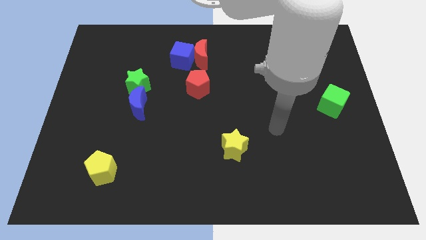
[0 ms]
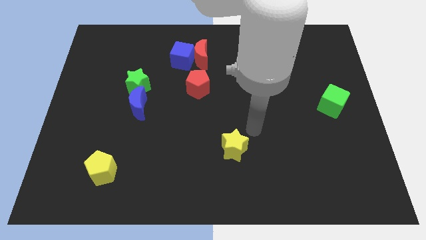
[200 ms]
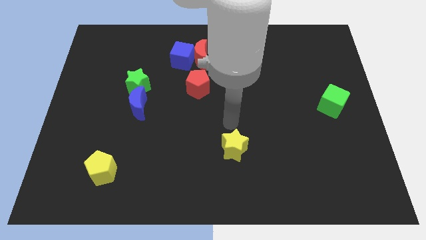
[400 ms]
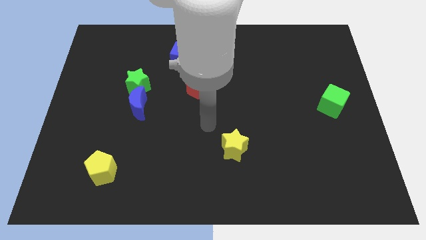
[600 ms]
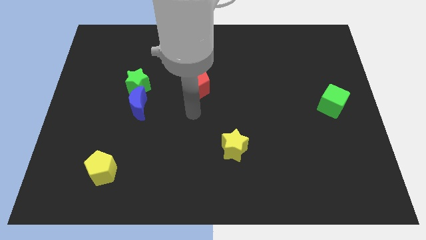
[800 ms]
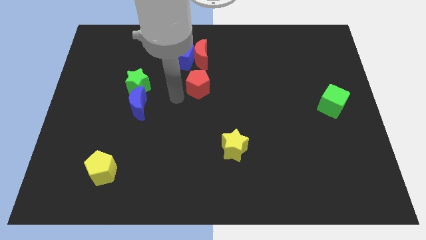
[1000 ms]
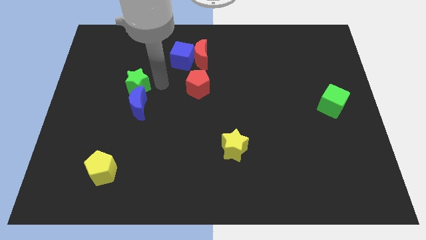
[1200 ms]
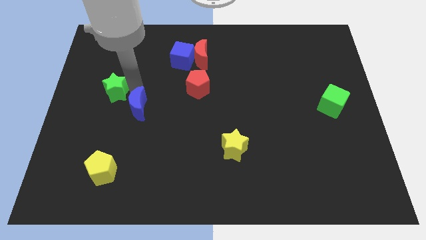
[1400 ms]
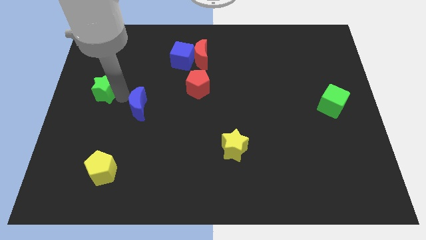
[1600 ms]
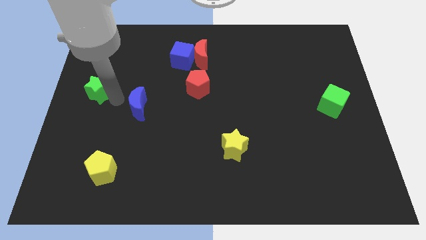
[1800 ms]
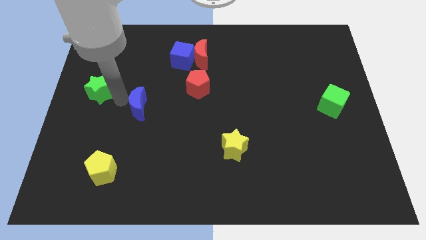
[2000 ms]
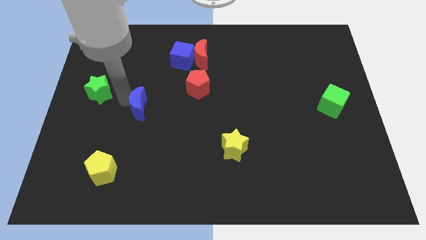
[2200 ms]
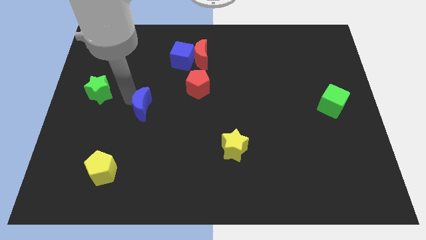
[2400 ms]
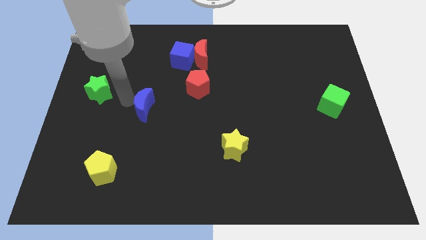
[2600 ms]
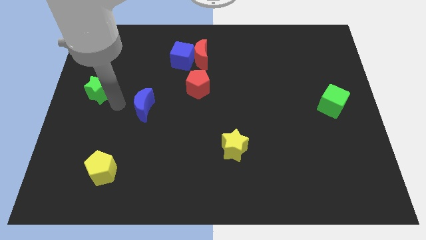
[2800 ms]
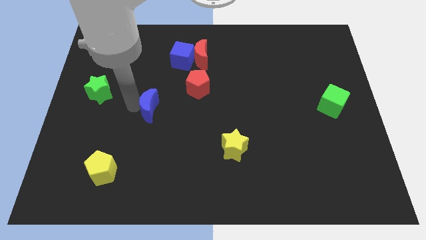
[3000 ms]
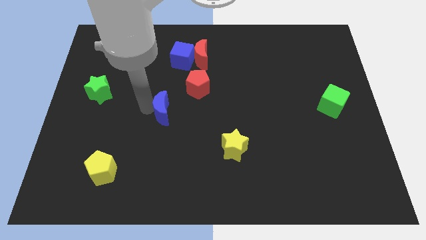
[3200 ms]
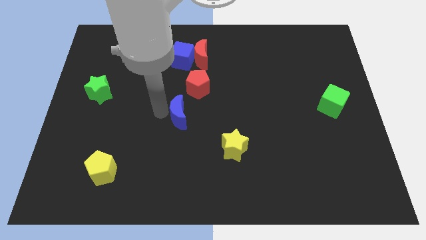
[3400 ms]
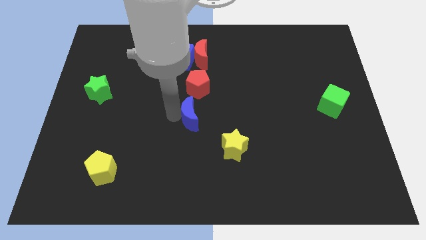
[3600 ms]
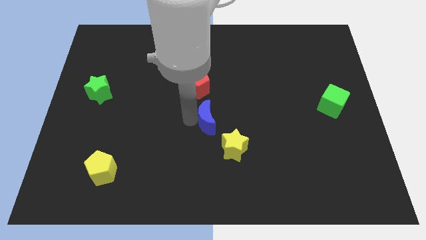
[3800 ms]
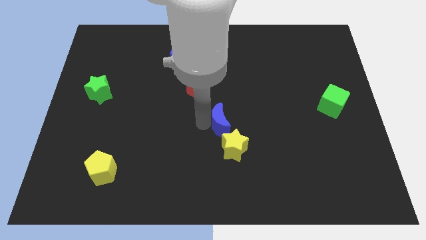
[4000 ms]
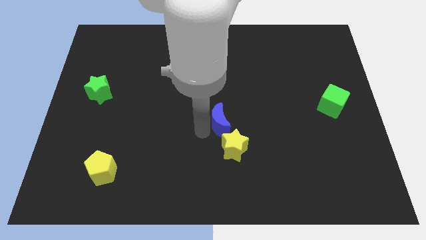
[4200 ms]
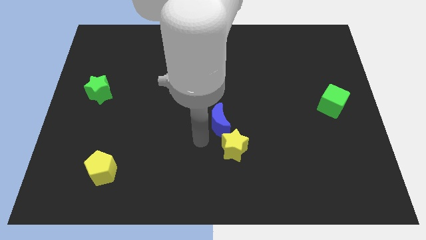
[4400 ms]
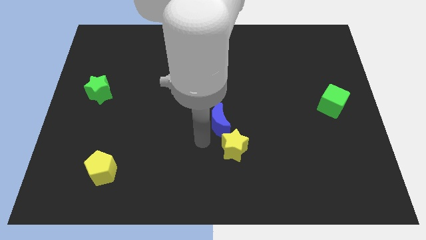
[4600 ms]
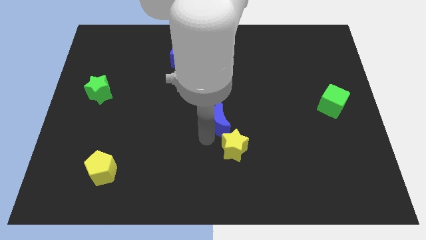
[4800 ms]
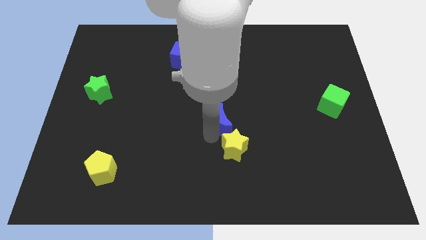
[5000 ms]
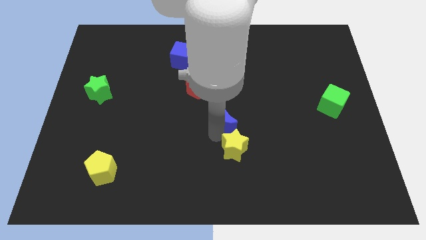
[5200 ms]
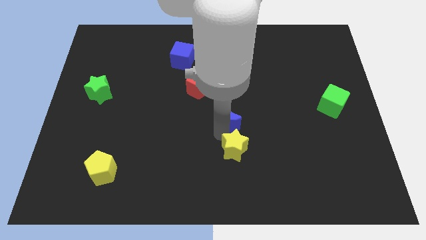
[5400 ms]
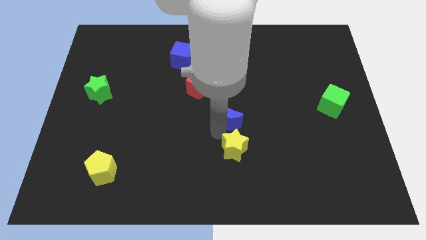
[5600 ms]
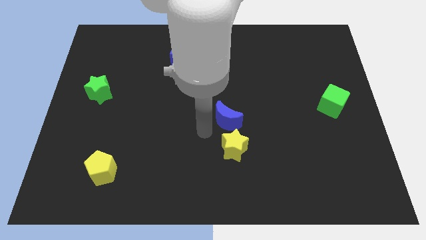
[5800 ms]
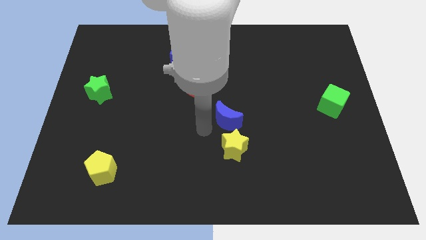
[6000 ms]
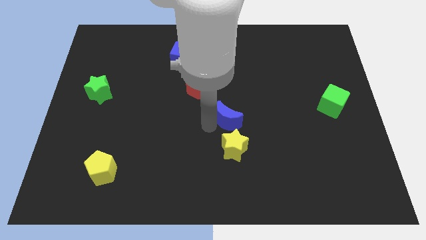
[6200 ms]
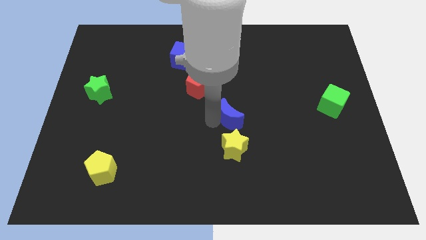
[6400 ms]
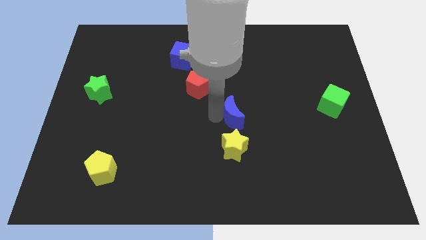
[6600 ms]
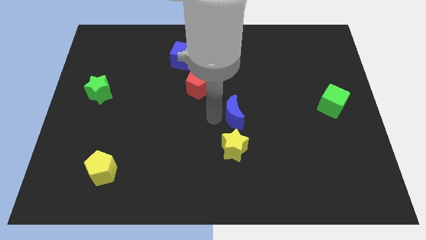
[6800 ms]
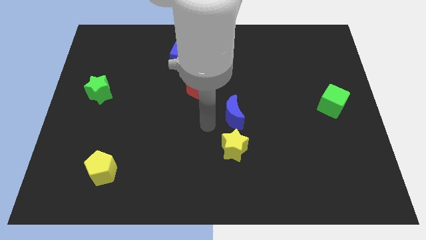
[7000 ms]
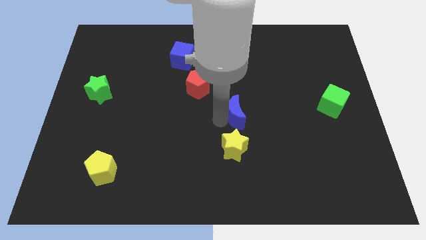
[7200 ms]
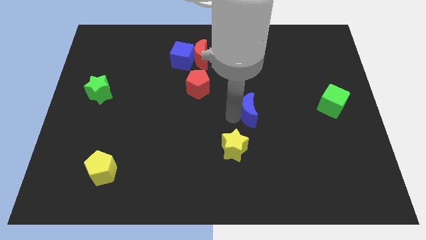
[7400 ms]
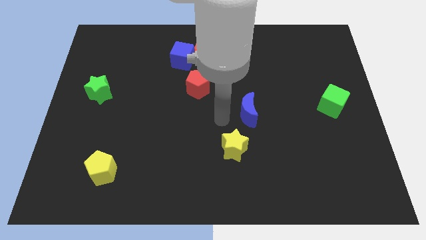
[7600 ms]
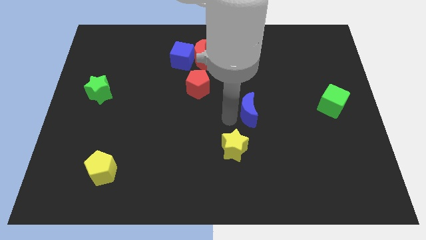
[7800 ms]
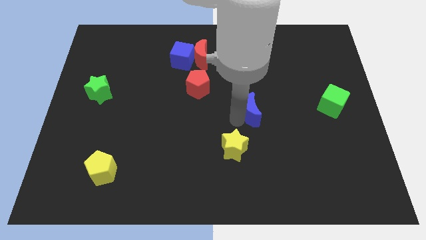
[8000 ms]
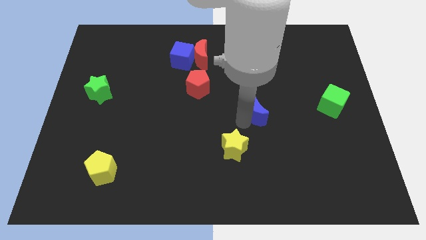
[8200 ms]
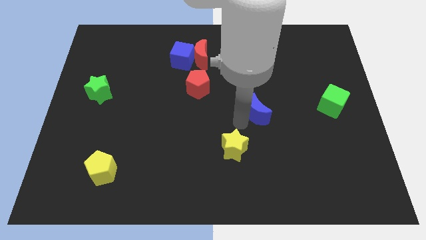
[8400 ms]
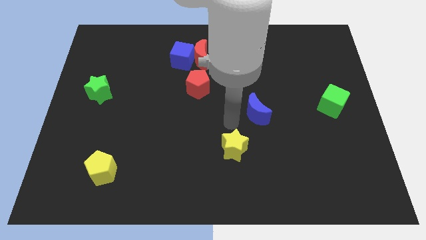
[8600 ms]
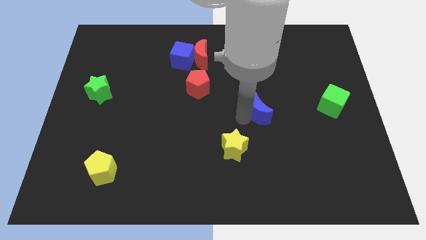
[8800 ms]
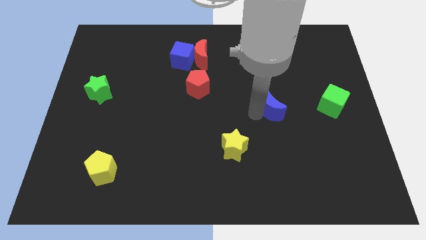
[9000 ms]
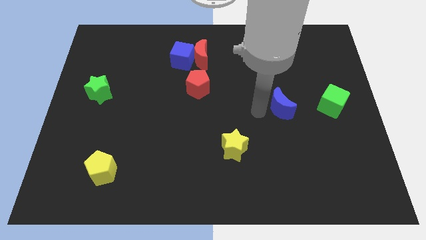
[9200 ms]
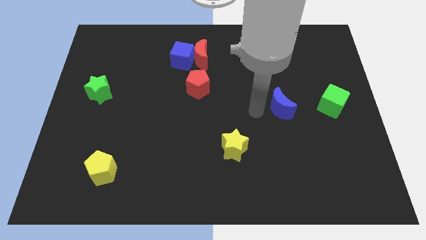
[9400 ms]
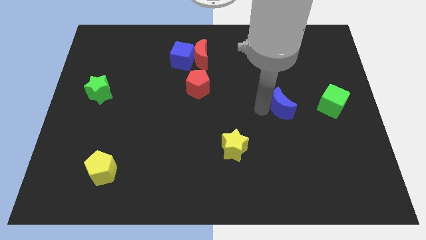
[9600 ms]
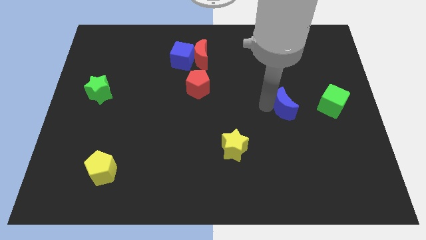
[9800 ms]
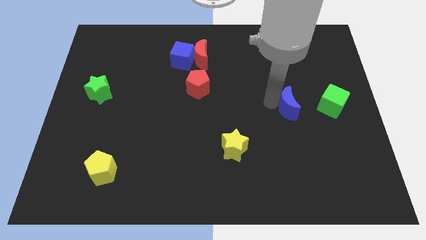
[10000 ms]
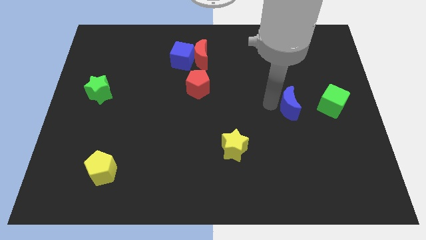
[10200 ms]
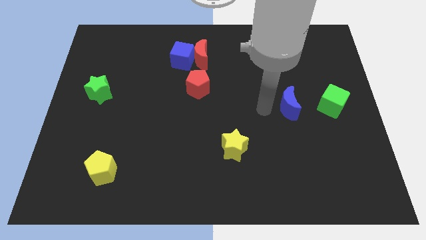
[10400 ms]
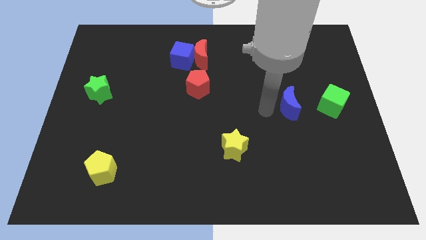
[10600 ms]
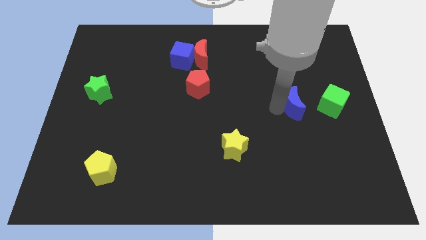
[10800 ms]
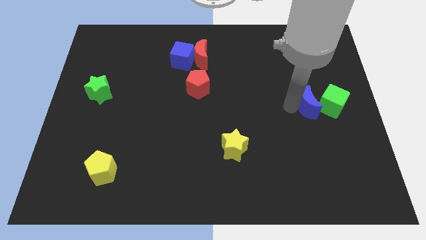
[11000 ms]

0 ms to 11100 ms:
push the blue moon close to the green cube

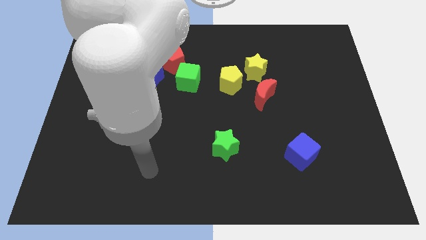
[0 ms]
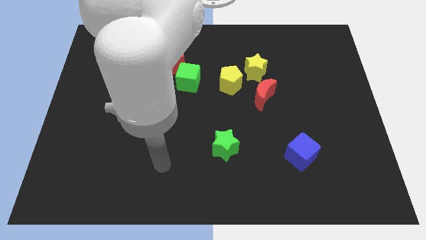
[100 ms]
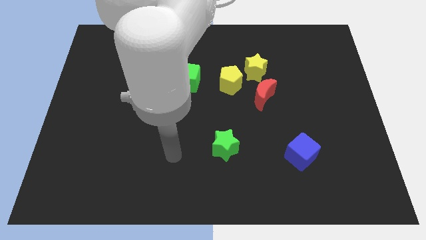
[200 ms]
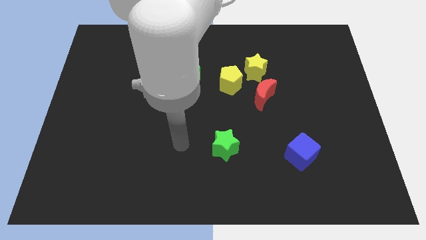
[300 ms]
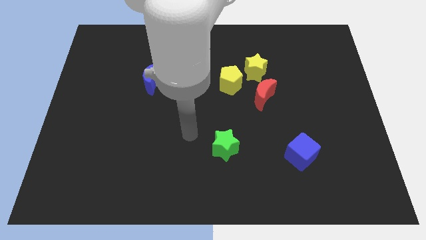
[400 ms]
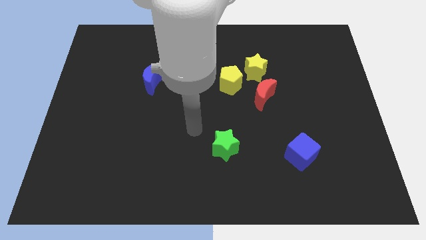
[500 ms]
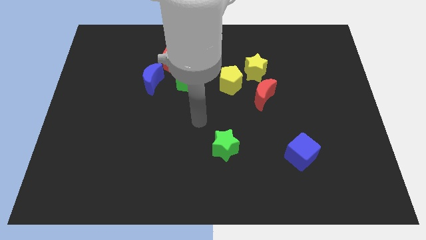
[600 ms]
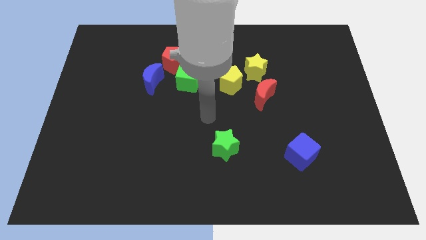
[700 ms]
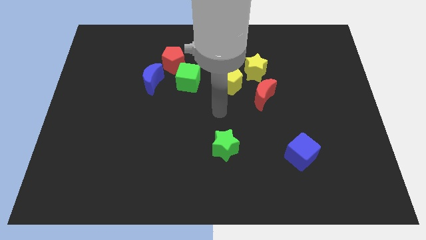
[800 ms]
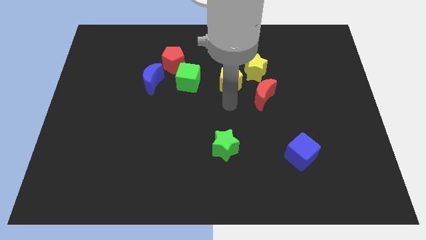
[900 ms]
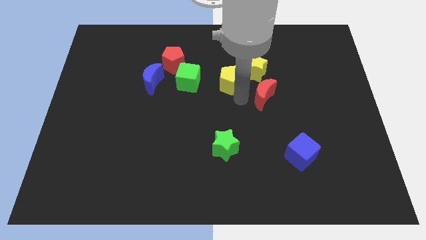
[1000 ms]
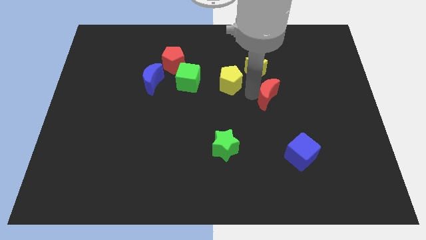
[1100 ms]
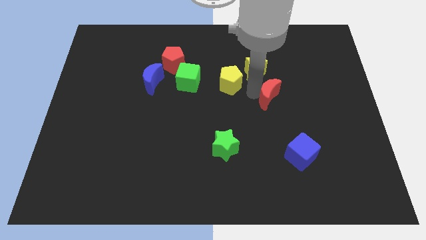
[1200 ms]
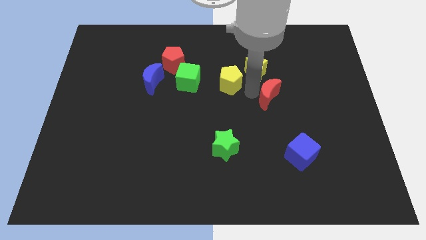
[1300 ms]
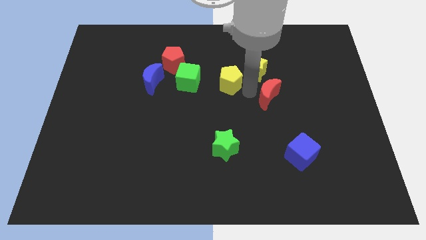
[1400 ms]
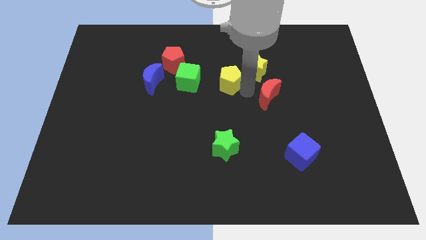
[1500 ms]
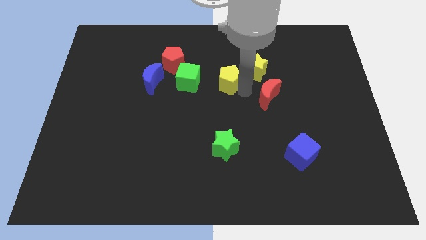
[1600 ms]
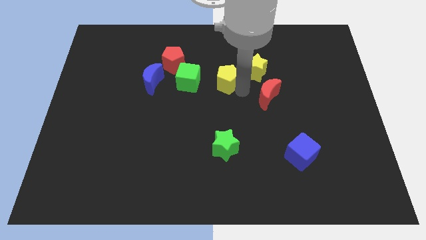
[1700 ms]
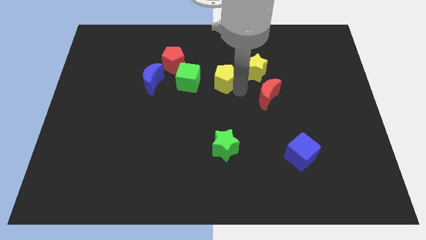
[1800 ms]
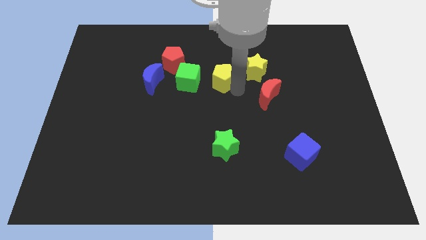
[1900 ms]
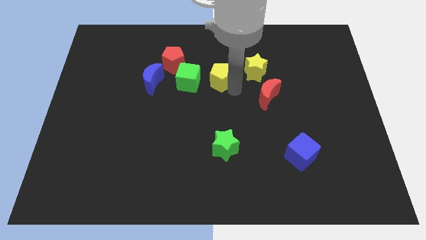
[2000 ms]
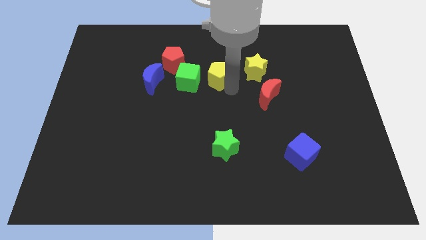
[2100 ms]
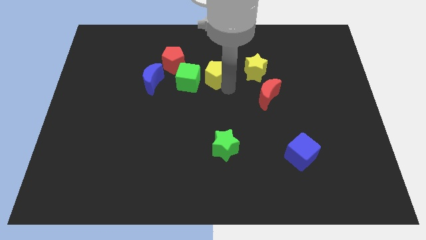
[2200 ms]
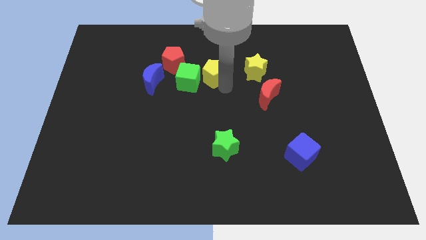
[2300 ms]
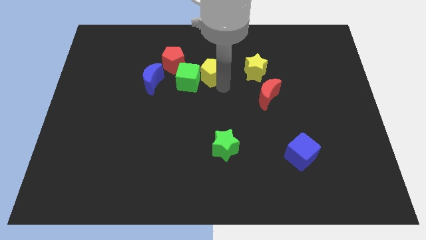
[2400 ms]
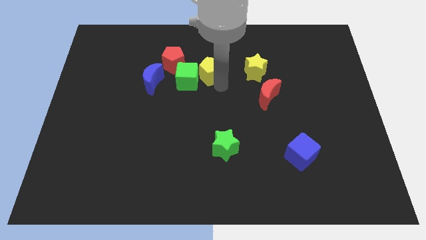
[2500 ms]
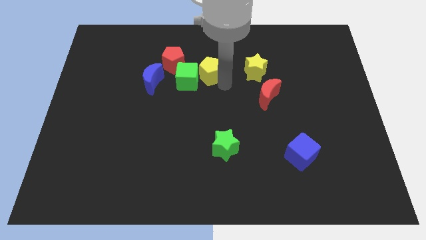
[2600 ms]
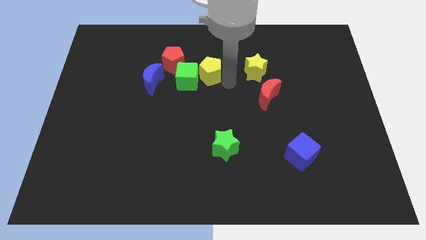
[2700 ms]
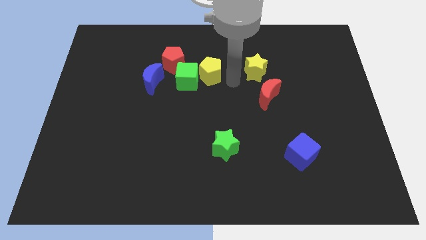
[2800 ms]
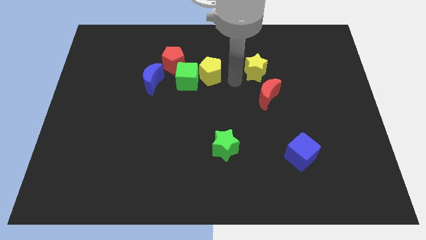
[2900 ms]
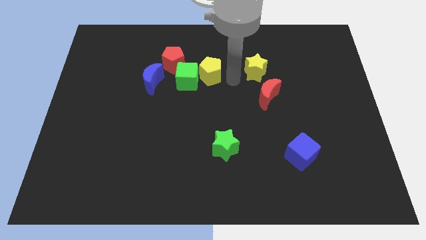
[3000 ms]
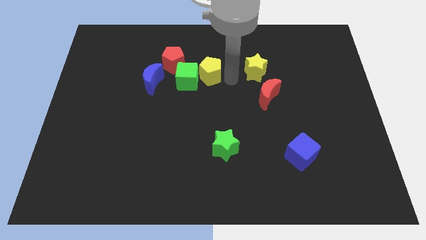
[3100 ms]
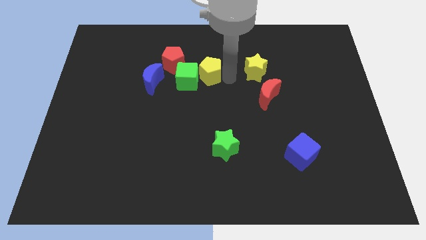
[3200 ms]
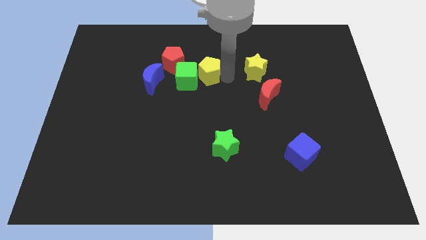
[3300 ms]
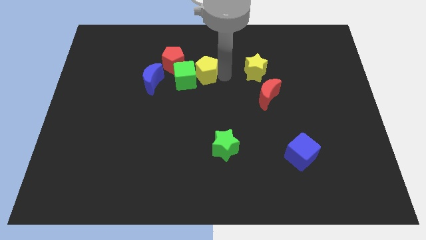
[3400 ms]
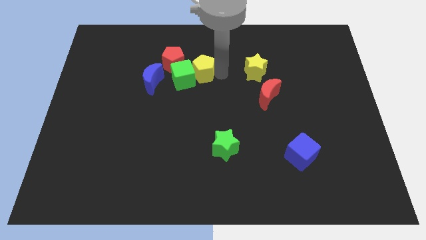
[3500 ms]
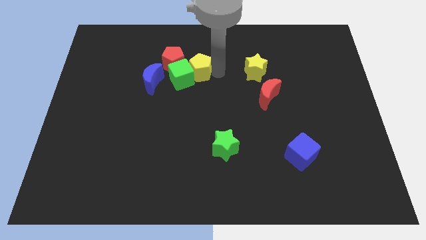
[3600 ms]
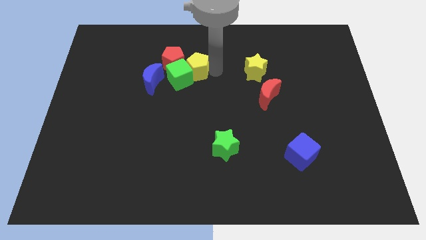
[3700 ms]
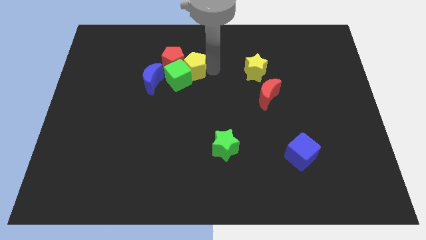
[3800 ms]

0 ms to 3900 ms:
slide the yellow pentagon close to the red pentagon
